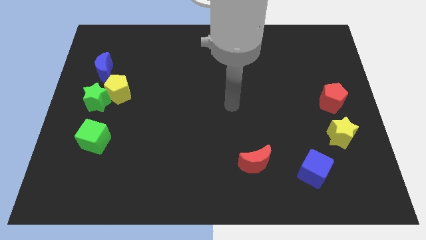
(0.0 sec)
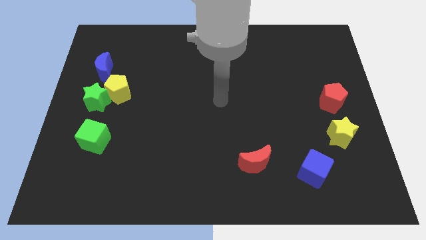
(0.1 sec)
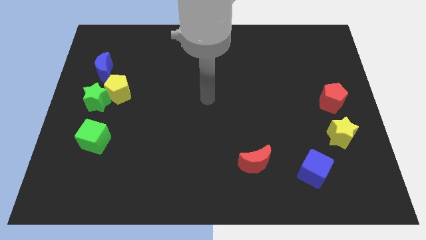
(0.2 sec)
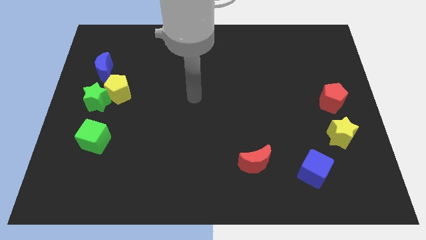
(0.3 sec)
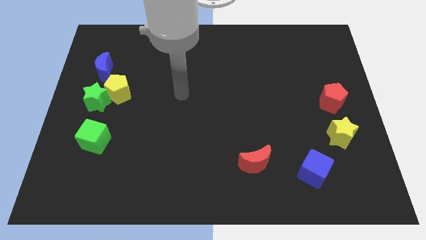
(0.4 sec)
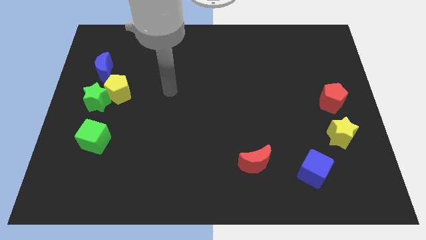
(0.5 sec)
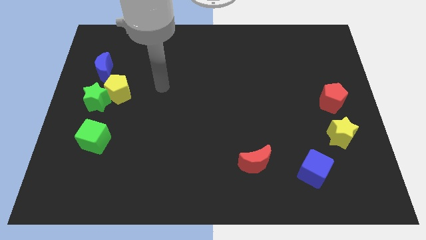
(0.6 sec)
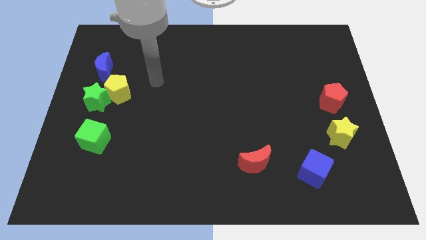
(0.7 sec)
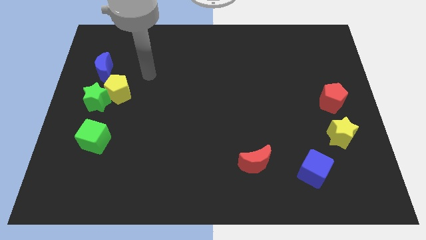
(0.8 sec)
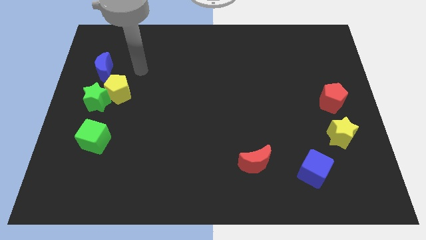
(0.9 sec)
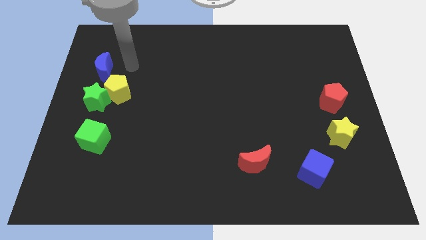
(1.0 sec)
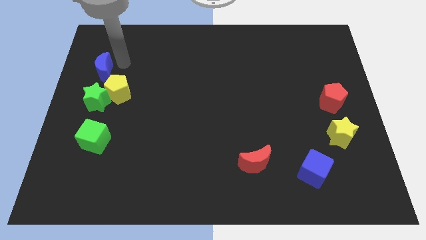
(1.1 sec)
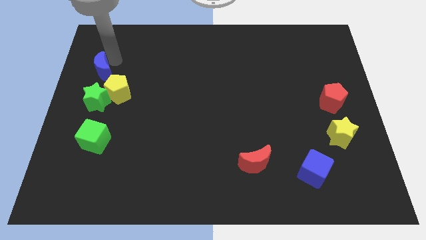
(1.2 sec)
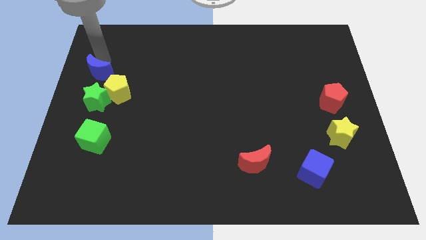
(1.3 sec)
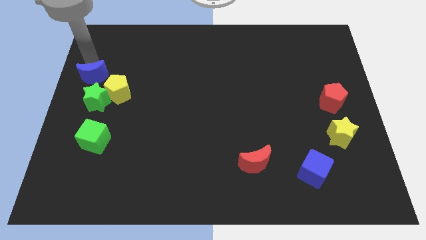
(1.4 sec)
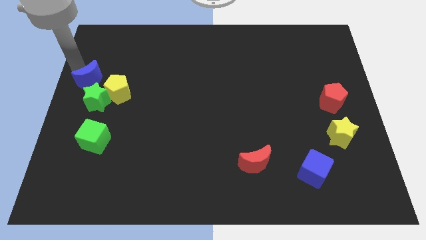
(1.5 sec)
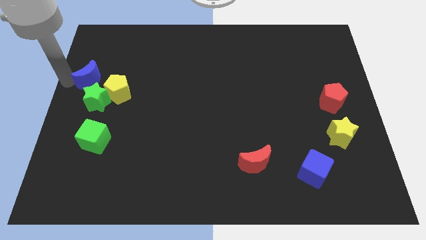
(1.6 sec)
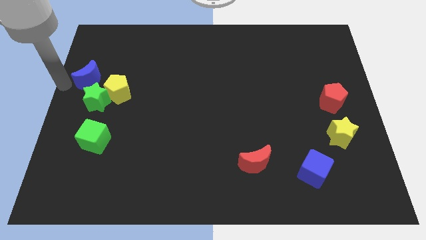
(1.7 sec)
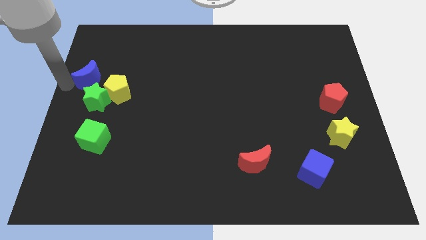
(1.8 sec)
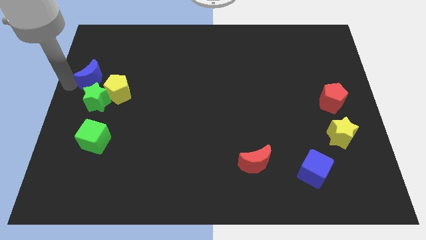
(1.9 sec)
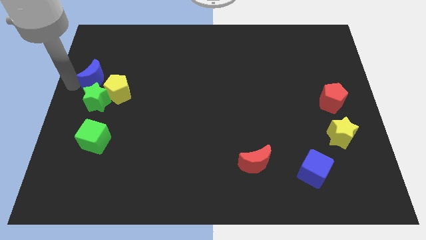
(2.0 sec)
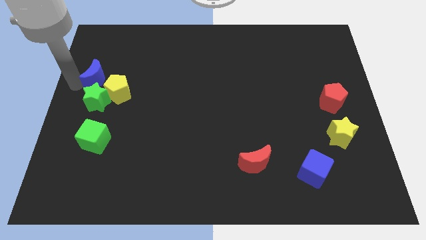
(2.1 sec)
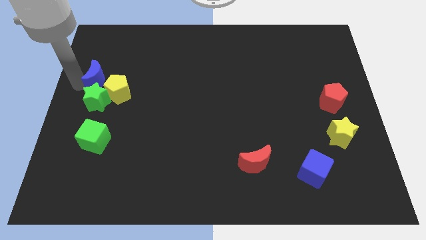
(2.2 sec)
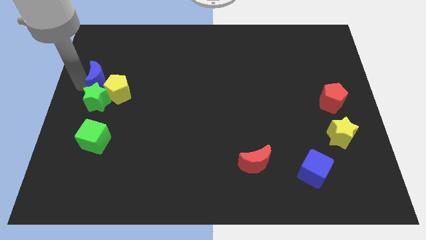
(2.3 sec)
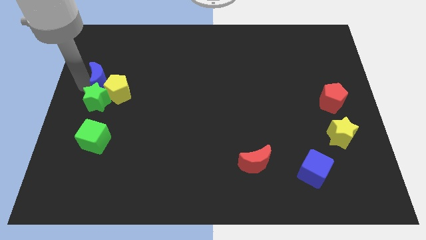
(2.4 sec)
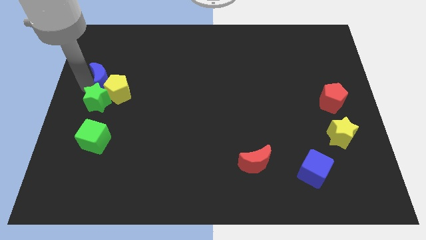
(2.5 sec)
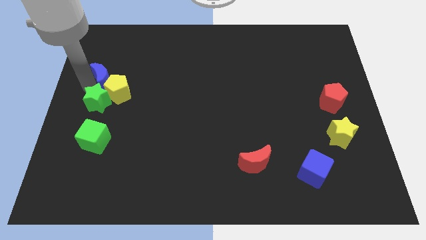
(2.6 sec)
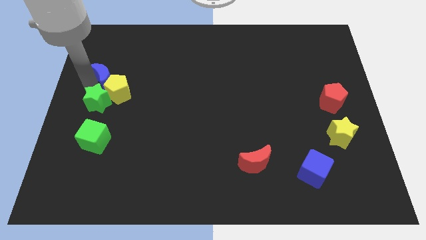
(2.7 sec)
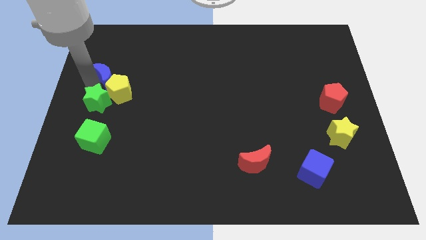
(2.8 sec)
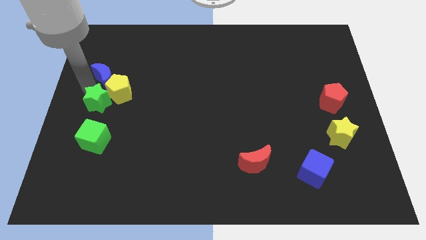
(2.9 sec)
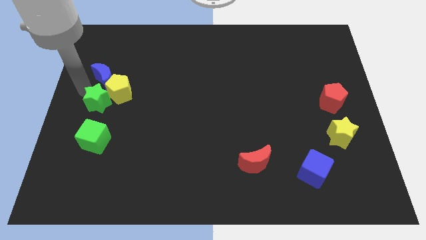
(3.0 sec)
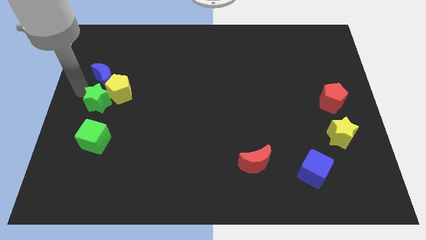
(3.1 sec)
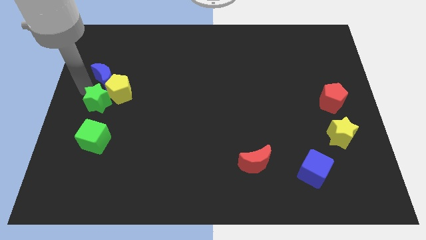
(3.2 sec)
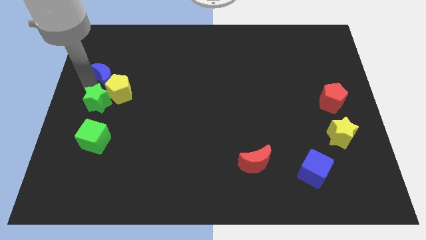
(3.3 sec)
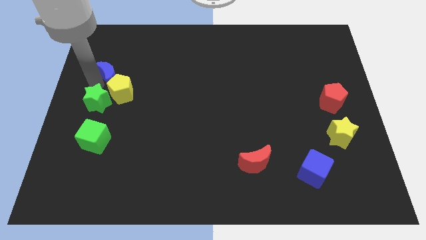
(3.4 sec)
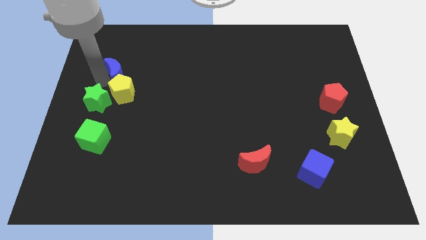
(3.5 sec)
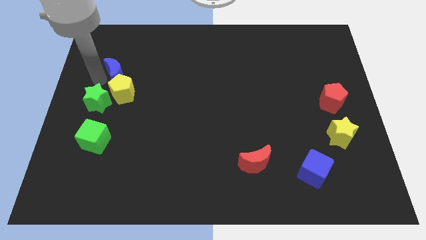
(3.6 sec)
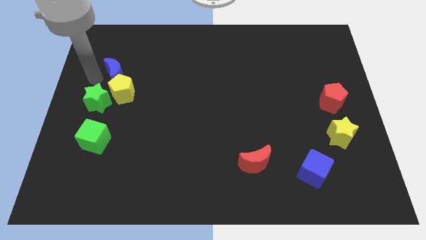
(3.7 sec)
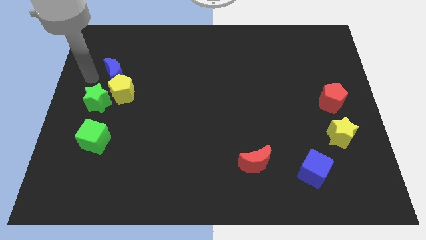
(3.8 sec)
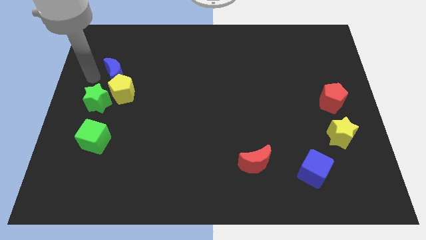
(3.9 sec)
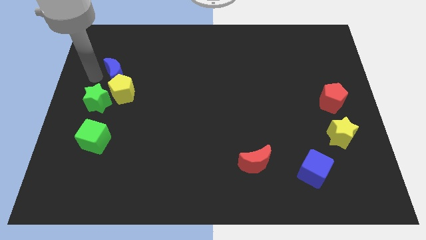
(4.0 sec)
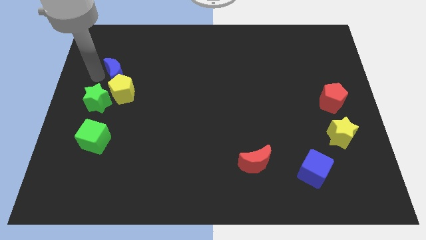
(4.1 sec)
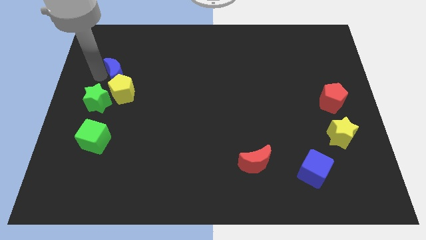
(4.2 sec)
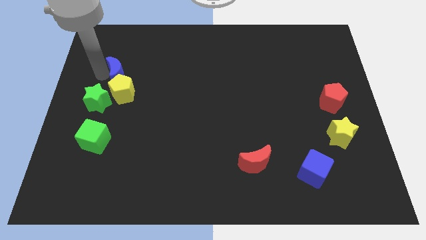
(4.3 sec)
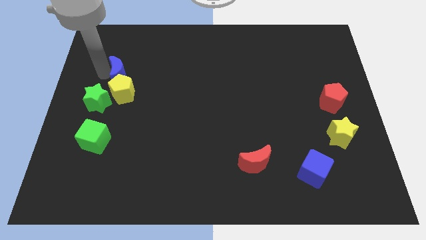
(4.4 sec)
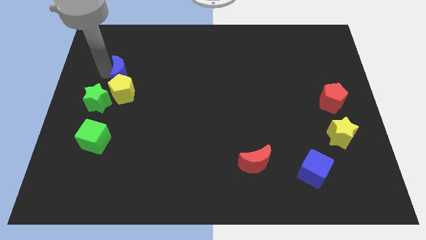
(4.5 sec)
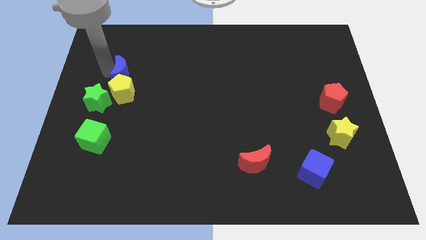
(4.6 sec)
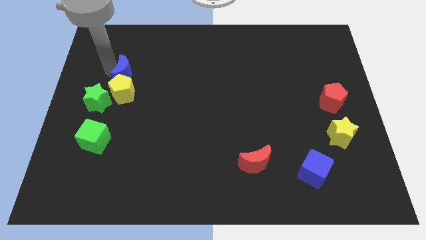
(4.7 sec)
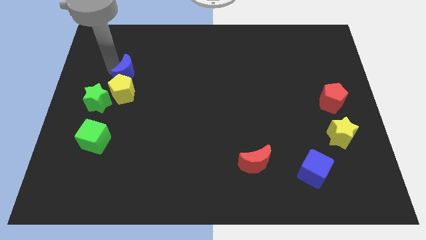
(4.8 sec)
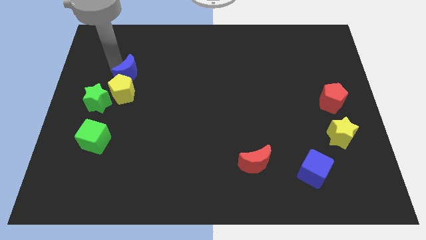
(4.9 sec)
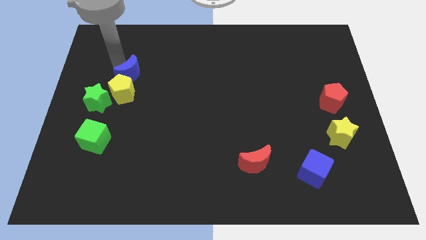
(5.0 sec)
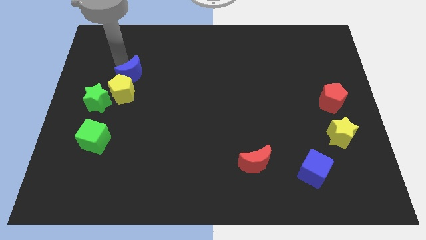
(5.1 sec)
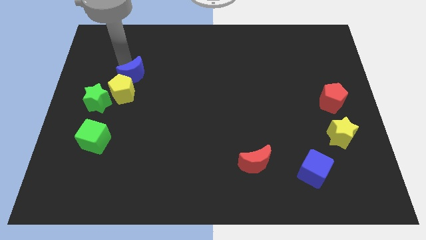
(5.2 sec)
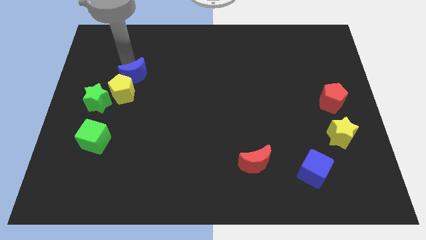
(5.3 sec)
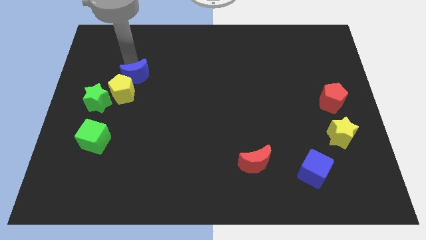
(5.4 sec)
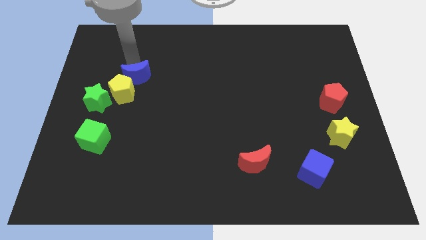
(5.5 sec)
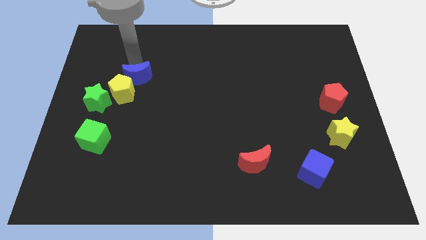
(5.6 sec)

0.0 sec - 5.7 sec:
slightly move the blue moon downwards and right diagonally

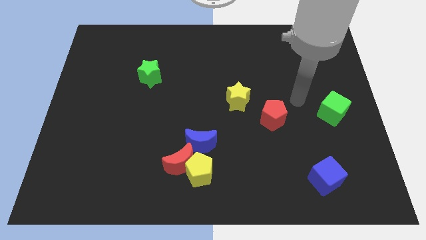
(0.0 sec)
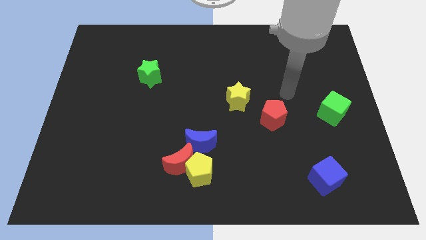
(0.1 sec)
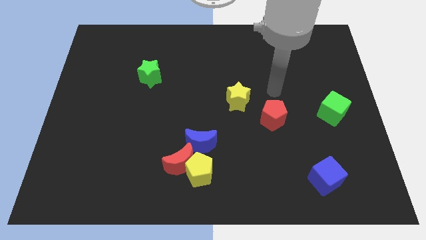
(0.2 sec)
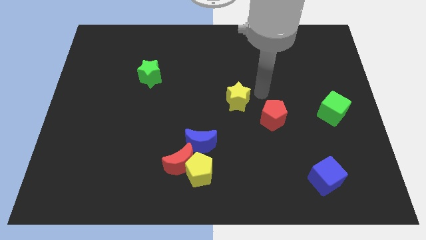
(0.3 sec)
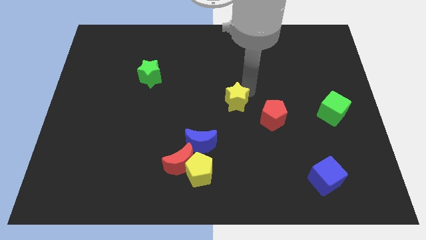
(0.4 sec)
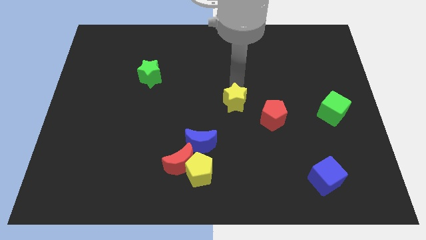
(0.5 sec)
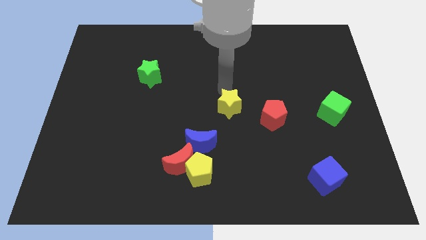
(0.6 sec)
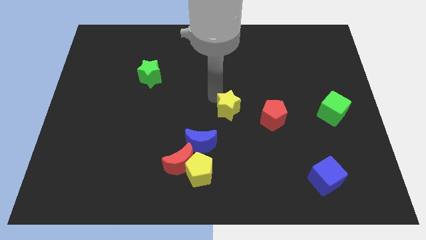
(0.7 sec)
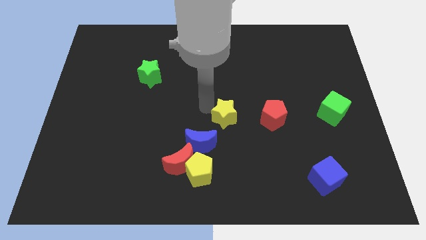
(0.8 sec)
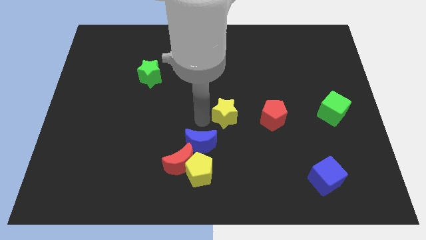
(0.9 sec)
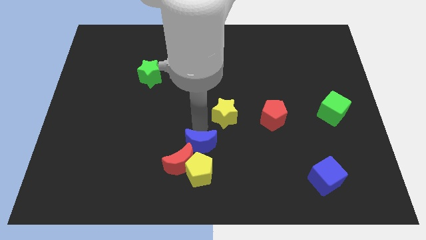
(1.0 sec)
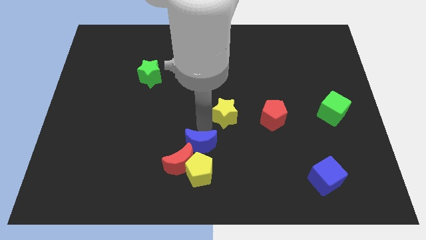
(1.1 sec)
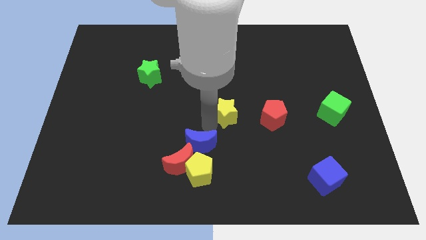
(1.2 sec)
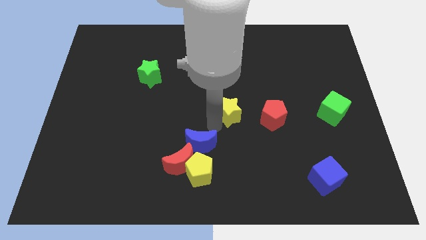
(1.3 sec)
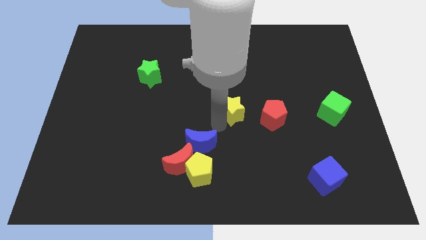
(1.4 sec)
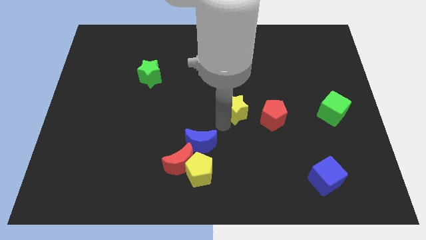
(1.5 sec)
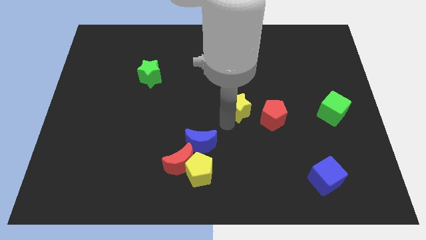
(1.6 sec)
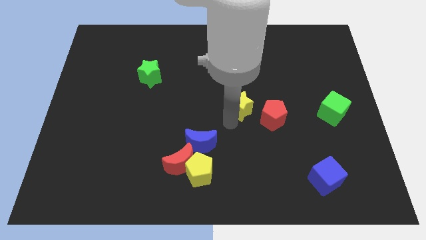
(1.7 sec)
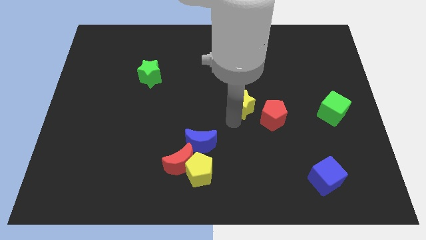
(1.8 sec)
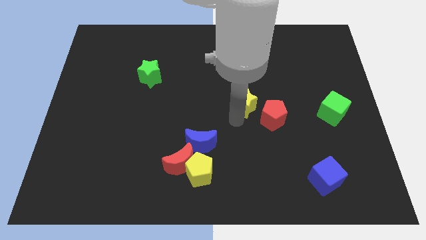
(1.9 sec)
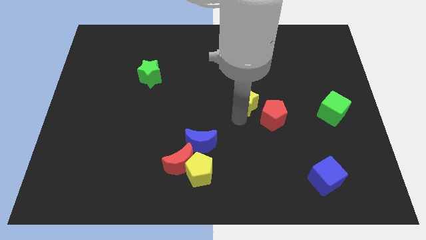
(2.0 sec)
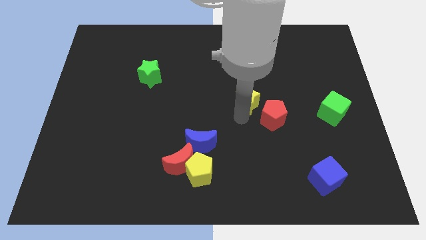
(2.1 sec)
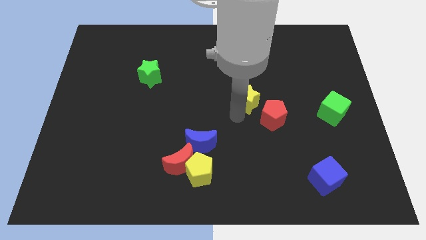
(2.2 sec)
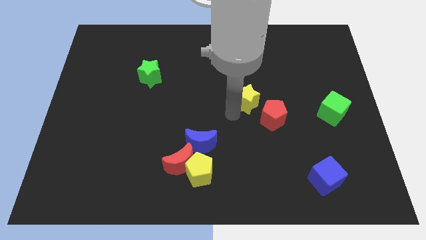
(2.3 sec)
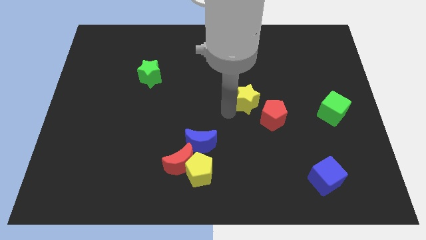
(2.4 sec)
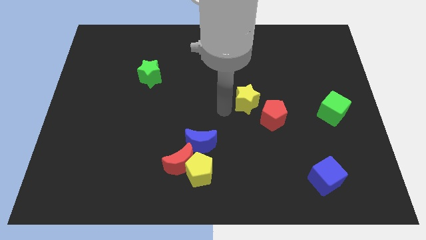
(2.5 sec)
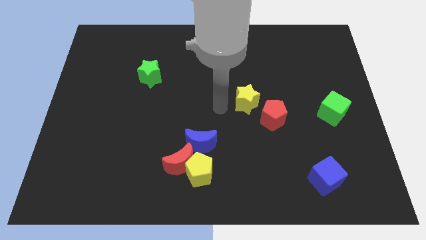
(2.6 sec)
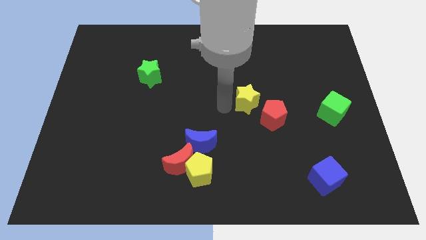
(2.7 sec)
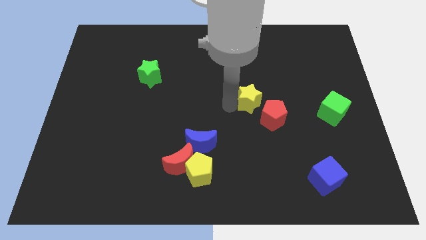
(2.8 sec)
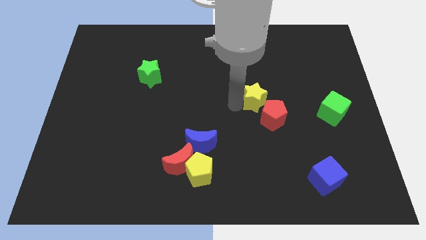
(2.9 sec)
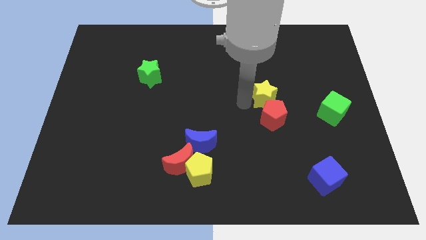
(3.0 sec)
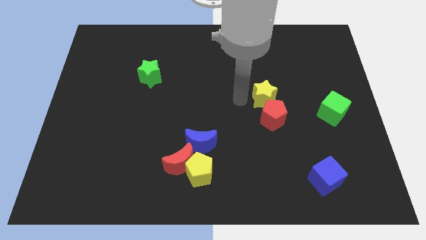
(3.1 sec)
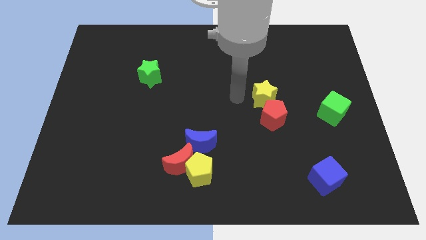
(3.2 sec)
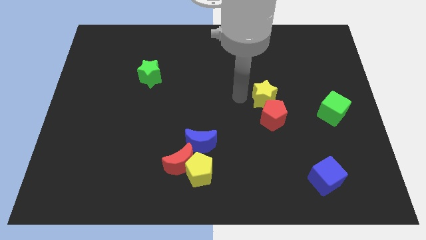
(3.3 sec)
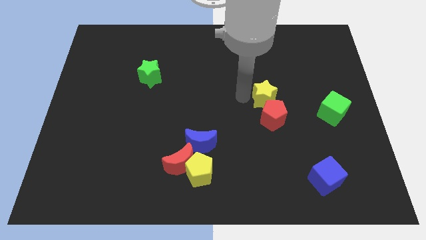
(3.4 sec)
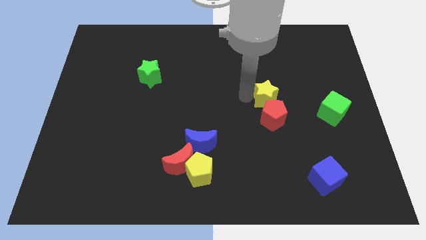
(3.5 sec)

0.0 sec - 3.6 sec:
slightly push the yellow star right
